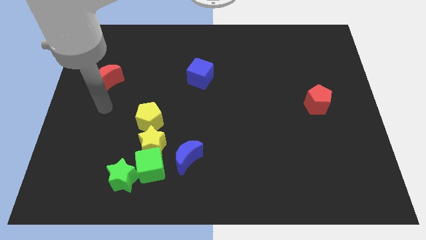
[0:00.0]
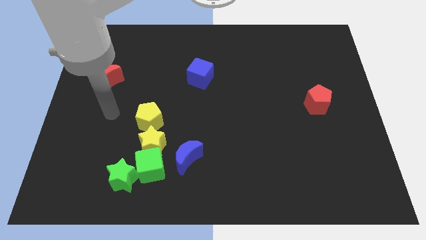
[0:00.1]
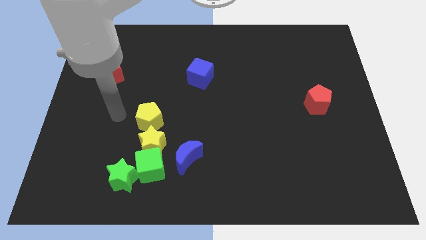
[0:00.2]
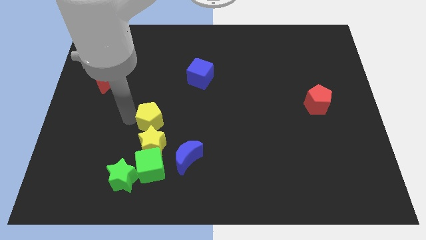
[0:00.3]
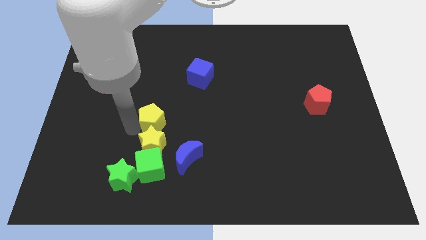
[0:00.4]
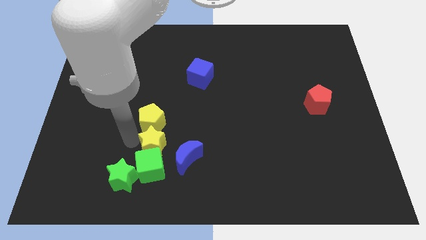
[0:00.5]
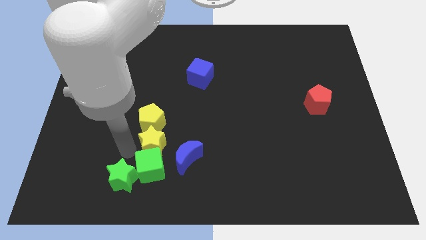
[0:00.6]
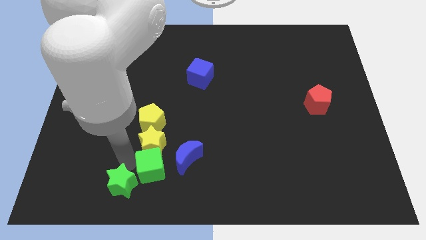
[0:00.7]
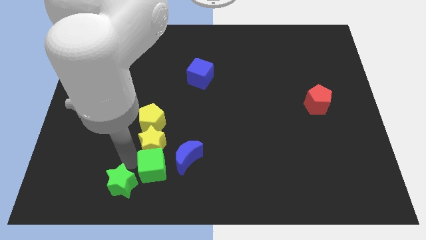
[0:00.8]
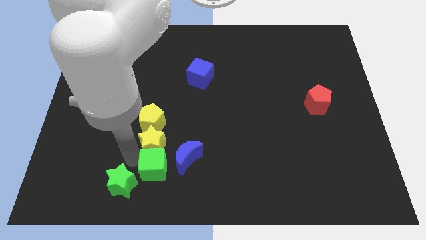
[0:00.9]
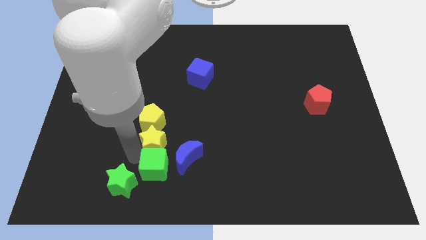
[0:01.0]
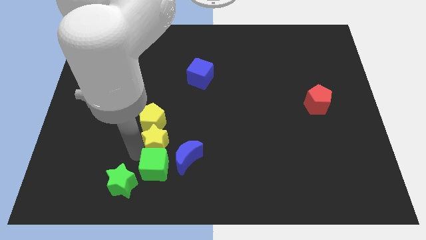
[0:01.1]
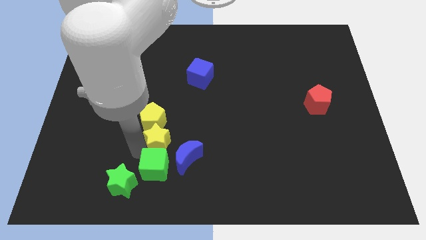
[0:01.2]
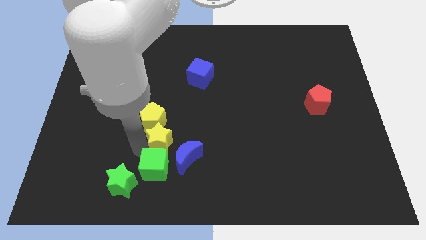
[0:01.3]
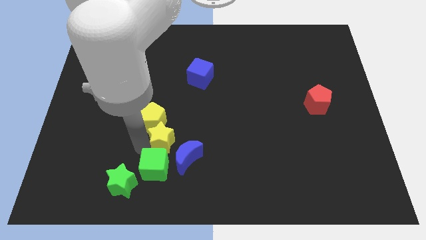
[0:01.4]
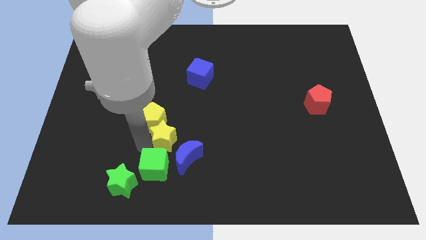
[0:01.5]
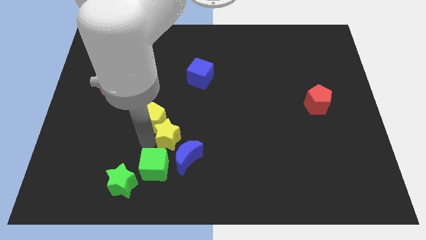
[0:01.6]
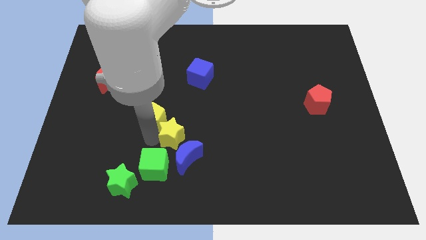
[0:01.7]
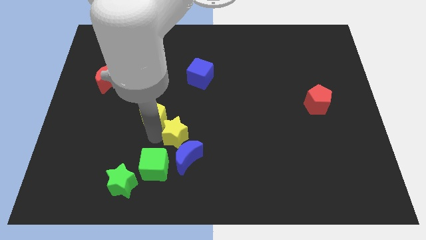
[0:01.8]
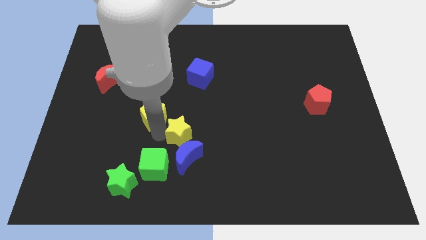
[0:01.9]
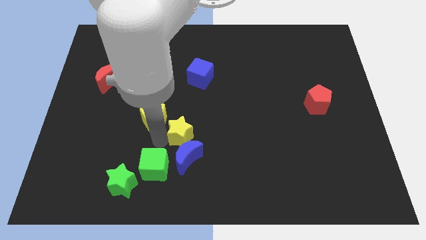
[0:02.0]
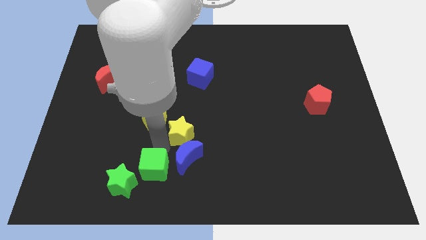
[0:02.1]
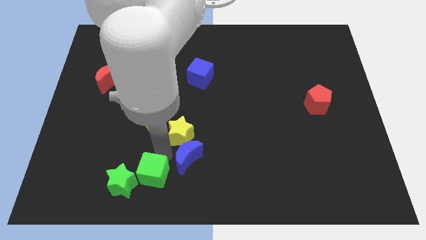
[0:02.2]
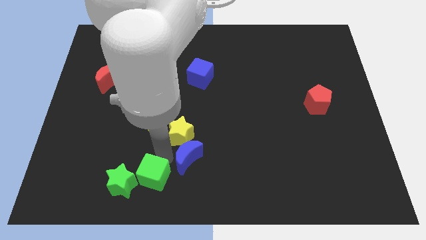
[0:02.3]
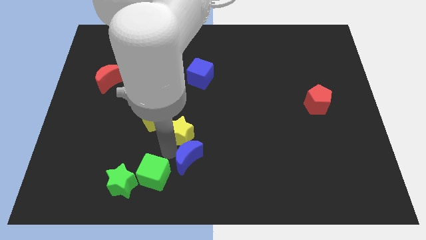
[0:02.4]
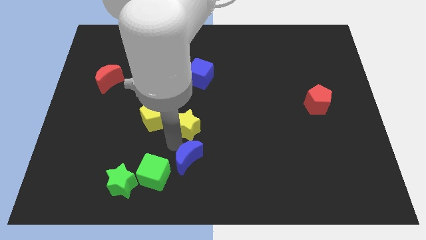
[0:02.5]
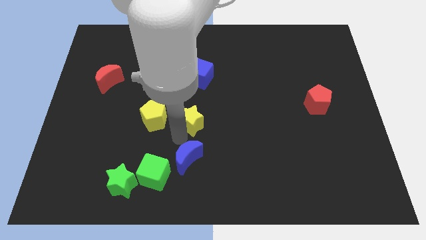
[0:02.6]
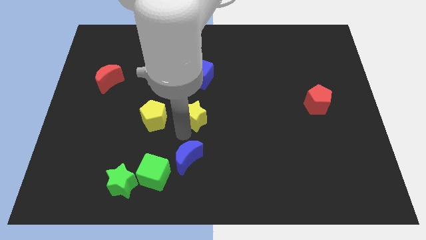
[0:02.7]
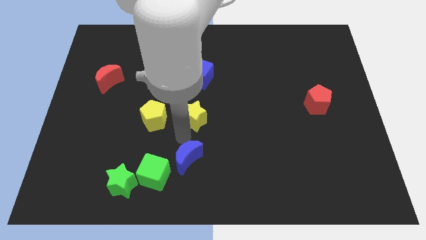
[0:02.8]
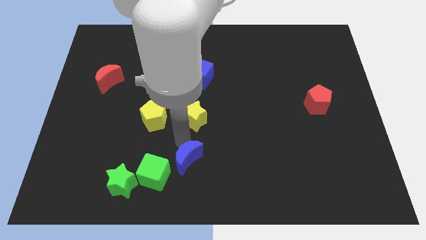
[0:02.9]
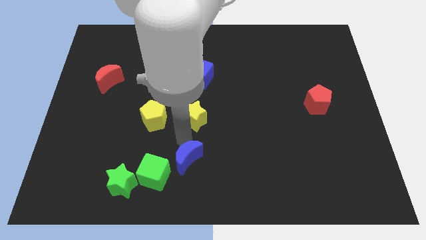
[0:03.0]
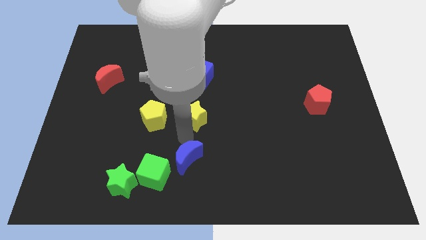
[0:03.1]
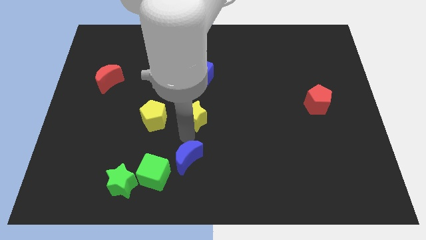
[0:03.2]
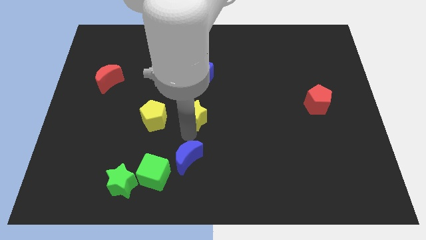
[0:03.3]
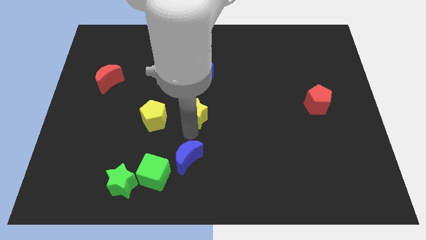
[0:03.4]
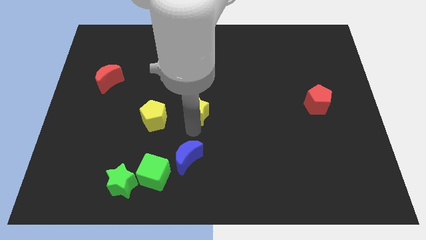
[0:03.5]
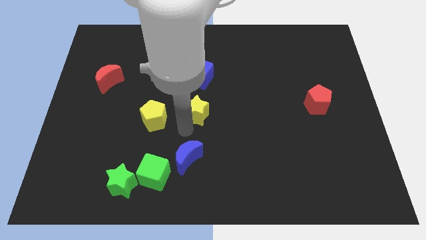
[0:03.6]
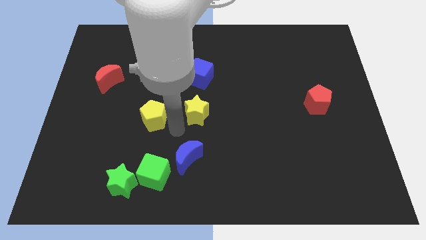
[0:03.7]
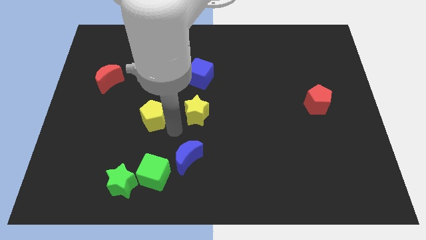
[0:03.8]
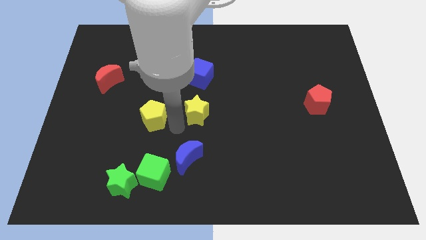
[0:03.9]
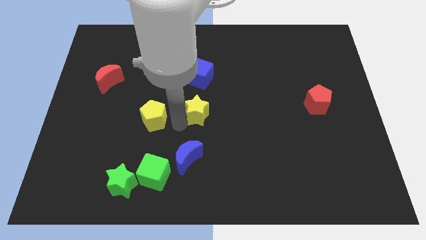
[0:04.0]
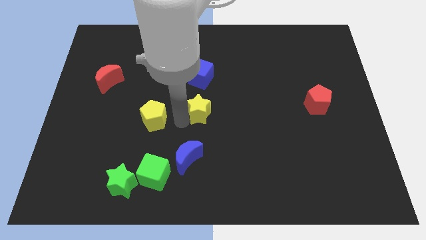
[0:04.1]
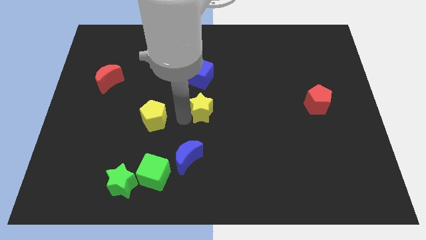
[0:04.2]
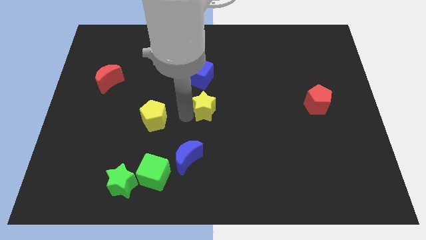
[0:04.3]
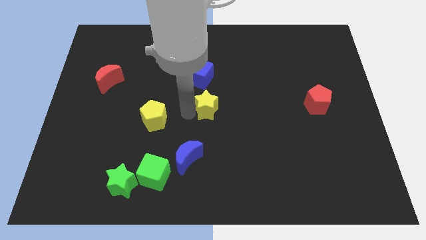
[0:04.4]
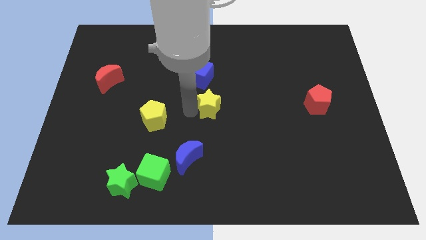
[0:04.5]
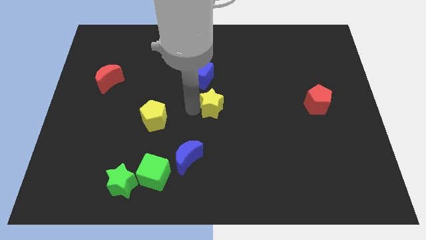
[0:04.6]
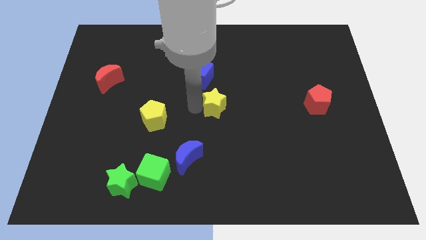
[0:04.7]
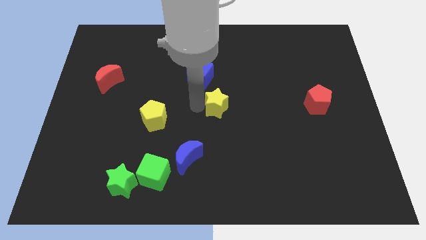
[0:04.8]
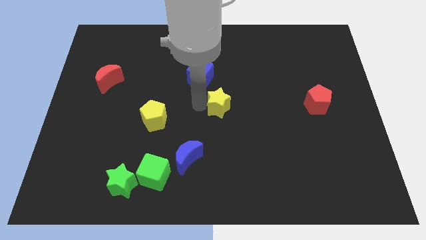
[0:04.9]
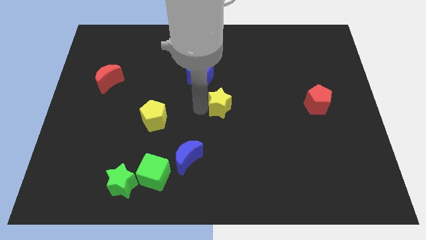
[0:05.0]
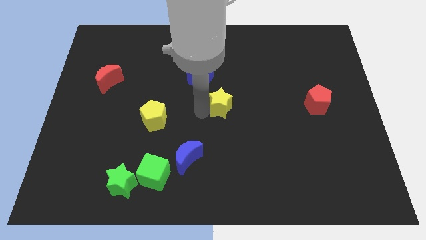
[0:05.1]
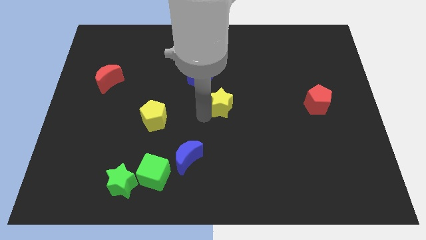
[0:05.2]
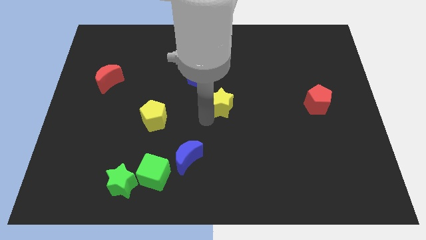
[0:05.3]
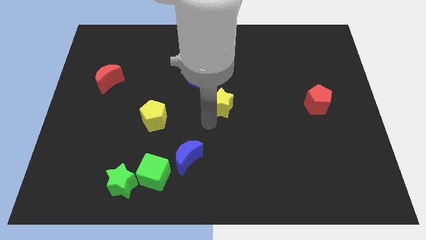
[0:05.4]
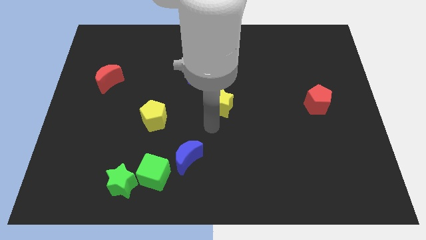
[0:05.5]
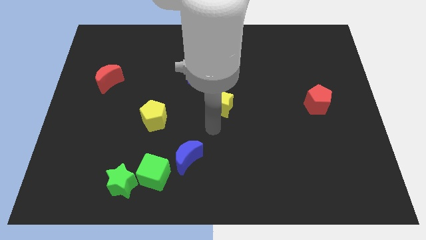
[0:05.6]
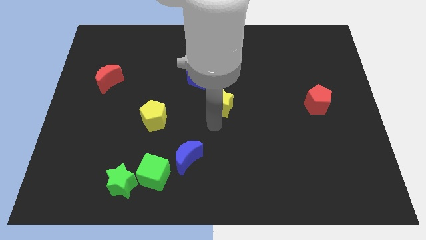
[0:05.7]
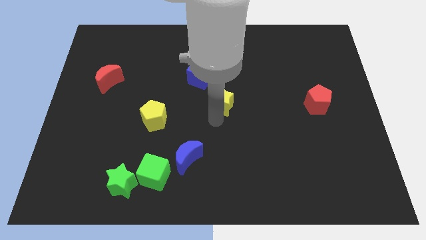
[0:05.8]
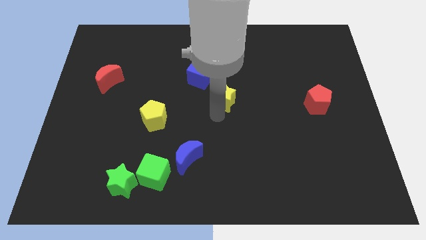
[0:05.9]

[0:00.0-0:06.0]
move the yellow star upwards and to the right

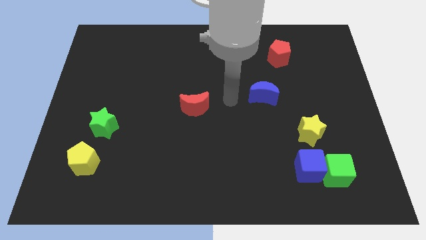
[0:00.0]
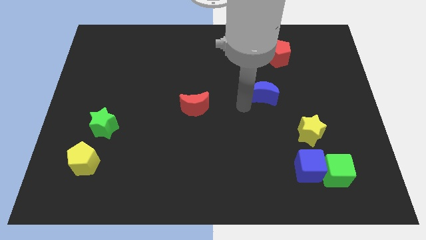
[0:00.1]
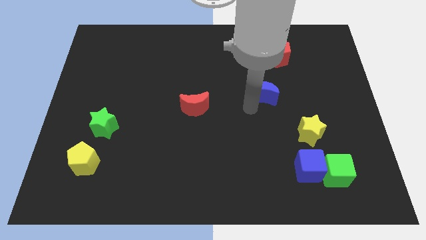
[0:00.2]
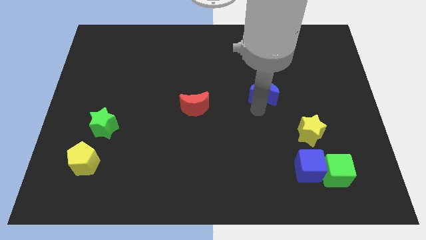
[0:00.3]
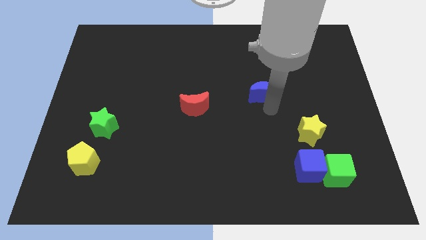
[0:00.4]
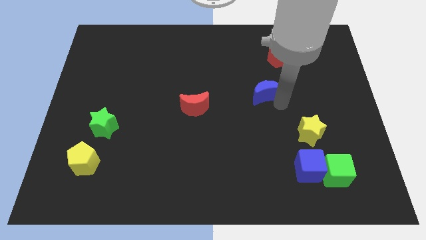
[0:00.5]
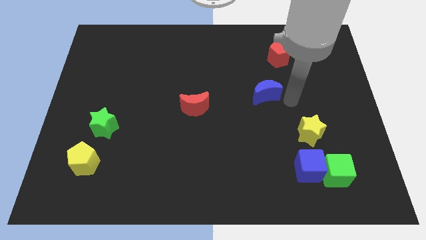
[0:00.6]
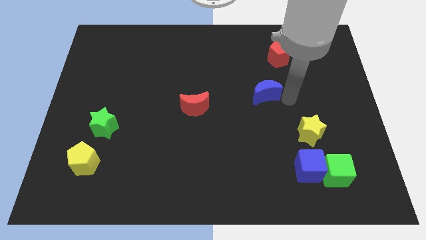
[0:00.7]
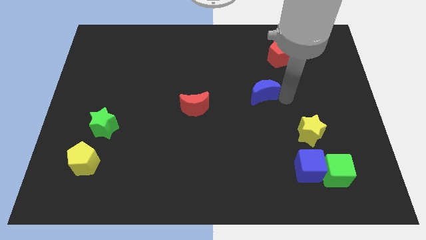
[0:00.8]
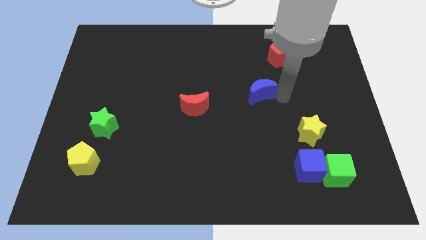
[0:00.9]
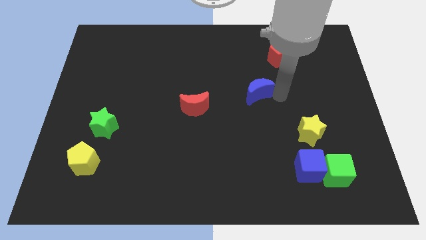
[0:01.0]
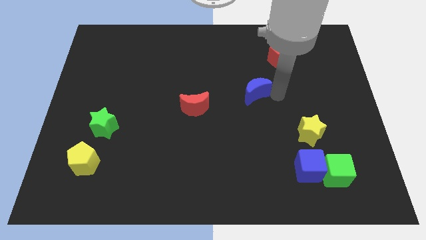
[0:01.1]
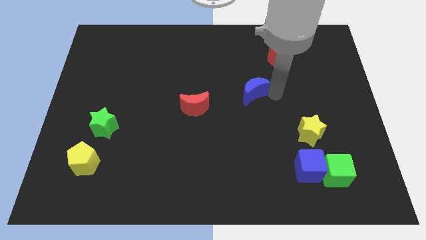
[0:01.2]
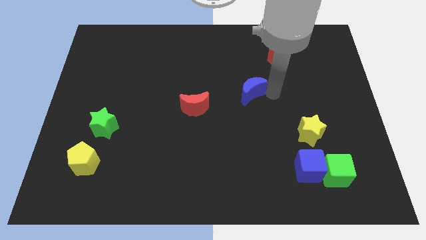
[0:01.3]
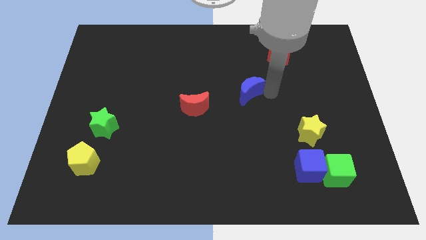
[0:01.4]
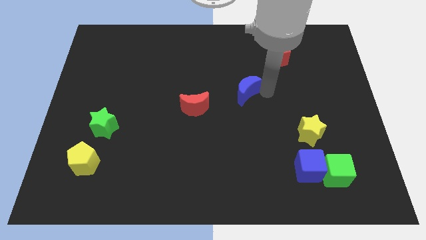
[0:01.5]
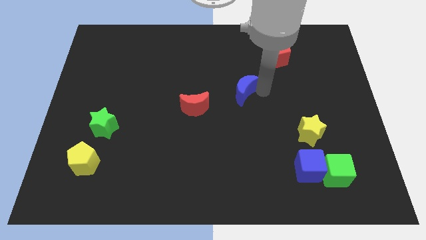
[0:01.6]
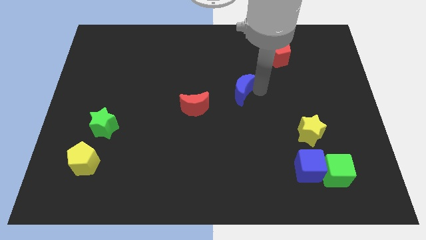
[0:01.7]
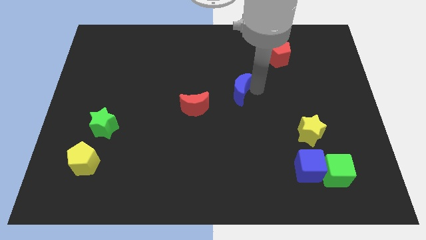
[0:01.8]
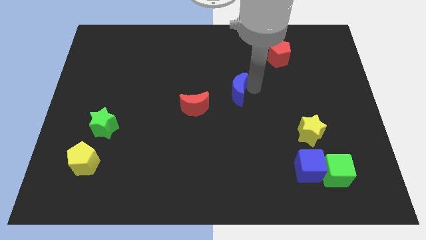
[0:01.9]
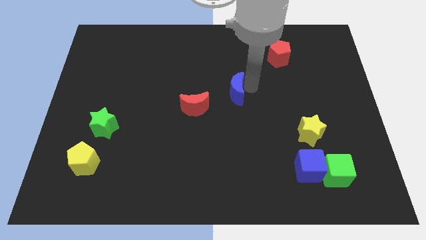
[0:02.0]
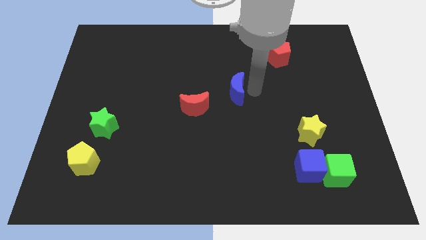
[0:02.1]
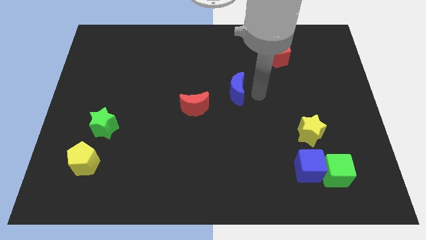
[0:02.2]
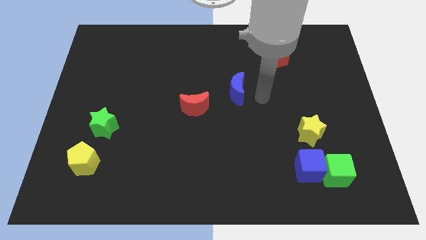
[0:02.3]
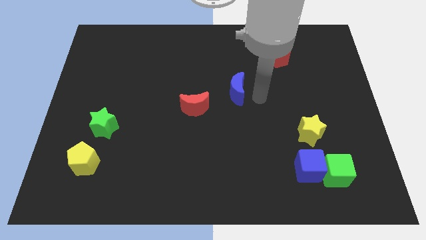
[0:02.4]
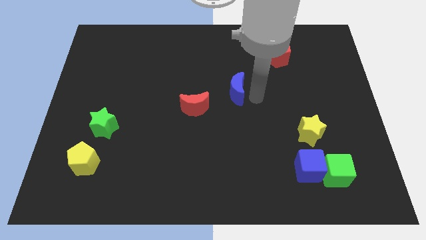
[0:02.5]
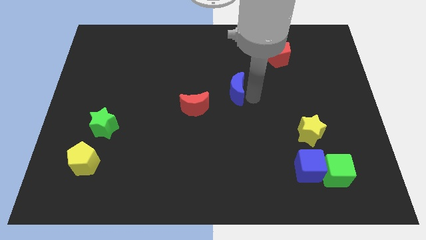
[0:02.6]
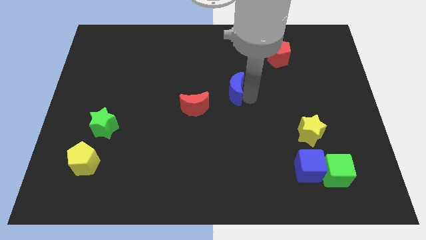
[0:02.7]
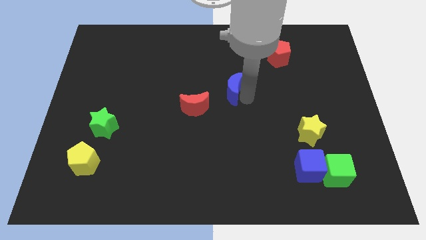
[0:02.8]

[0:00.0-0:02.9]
slightly push the blue moon left
